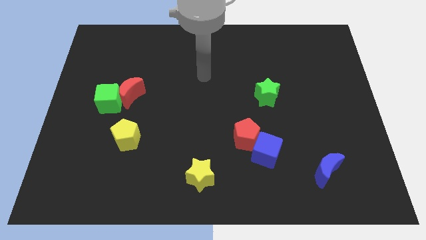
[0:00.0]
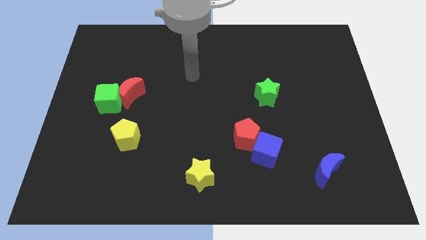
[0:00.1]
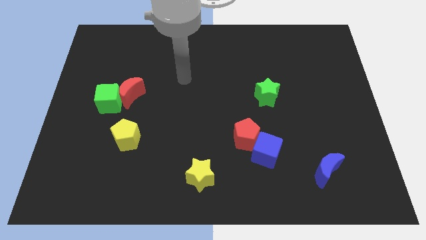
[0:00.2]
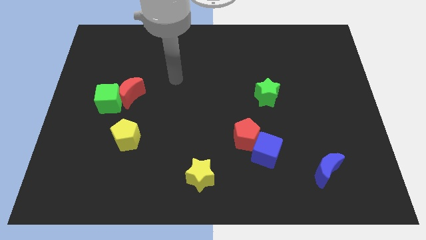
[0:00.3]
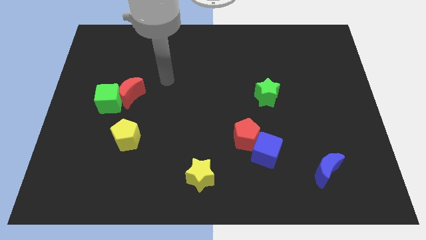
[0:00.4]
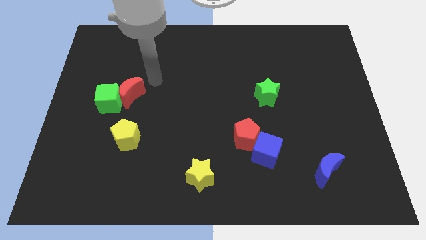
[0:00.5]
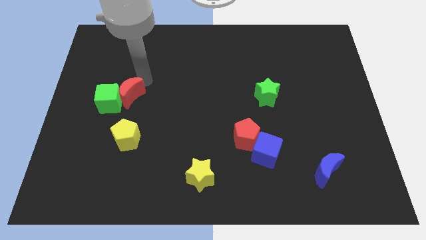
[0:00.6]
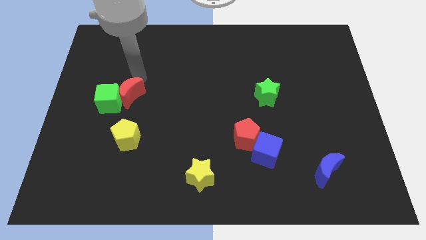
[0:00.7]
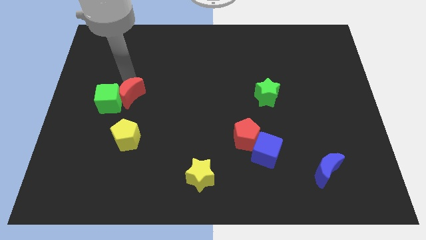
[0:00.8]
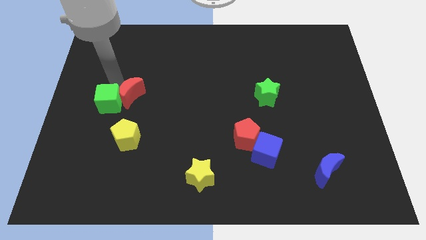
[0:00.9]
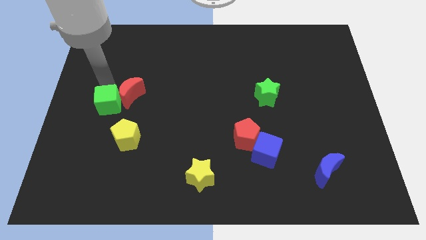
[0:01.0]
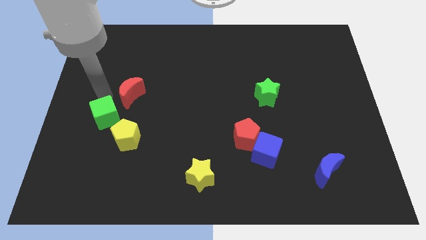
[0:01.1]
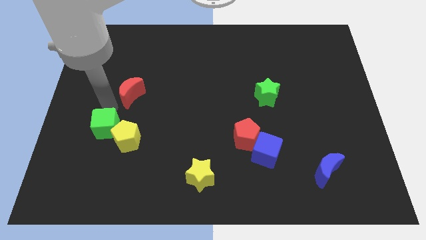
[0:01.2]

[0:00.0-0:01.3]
move the red moon away from the green cube

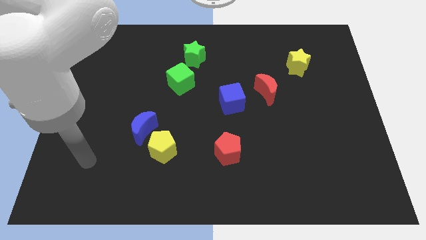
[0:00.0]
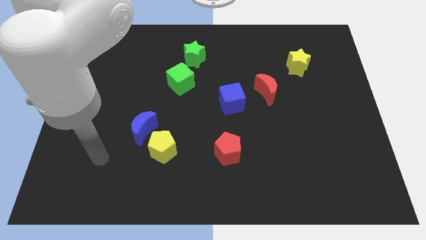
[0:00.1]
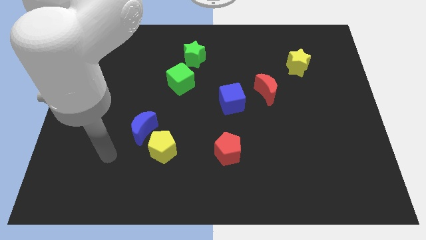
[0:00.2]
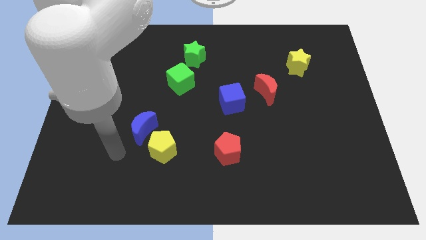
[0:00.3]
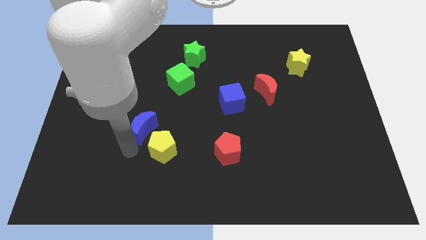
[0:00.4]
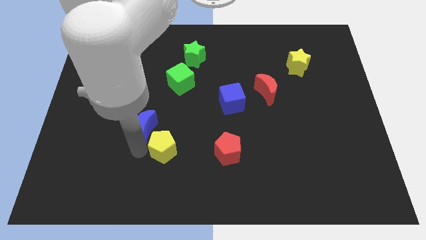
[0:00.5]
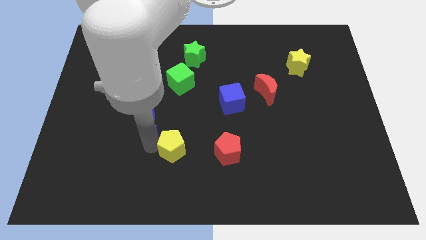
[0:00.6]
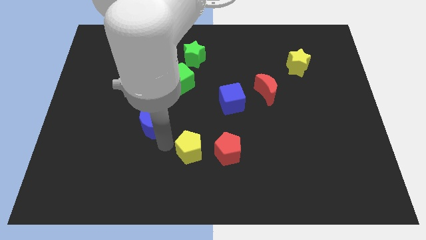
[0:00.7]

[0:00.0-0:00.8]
pull the blue moon apart from the yellow pentagon

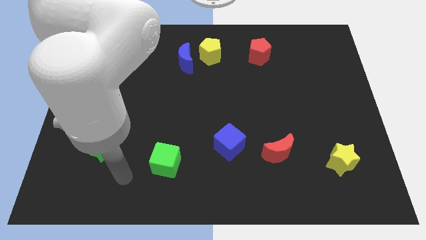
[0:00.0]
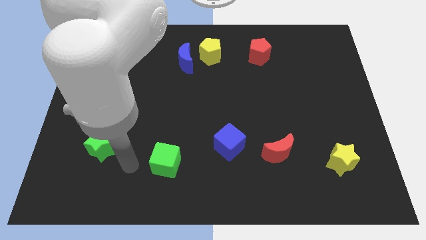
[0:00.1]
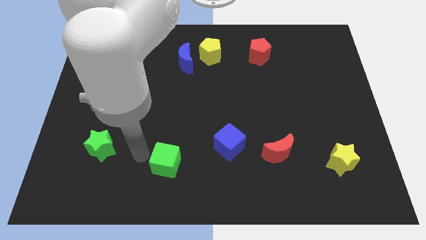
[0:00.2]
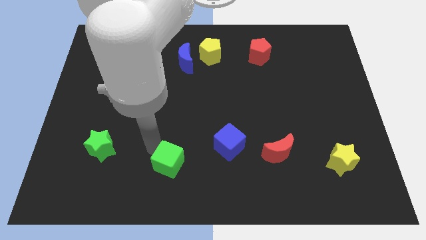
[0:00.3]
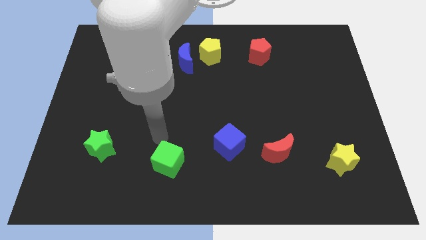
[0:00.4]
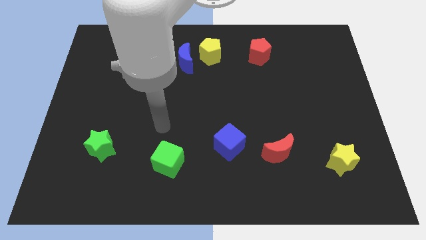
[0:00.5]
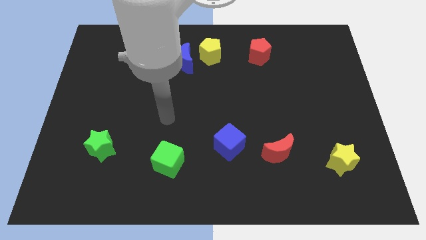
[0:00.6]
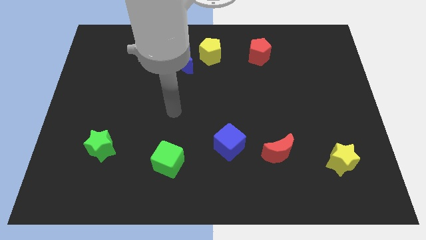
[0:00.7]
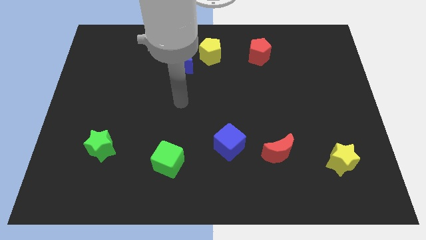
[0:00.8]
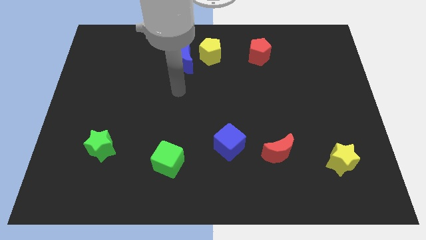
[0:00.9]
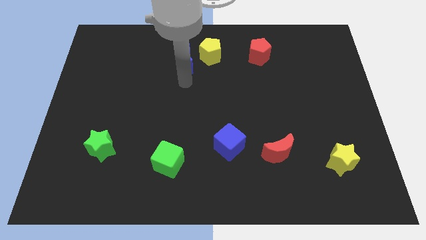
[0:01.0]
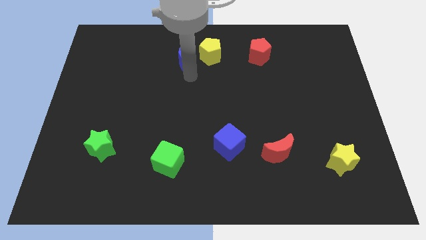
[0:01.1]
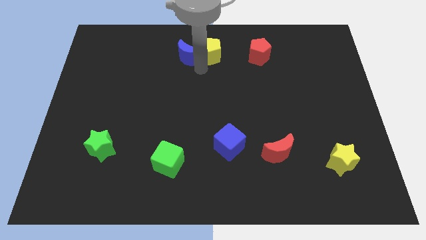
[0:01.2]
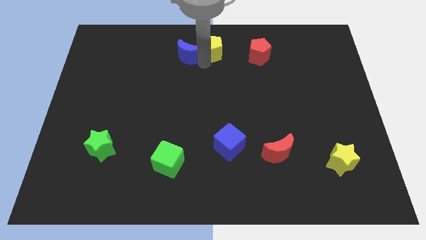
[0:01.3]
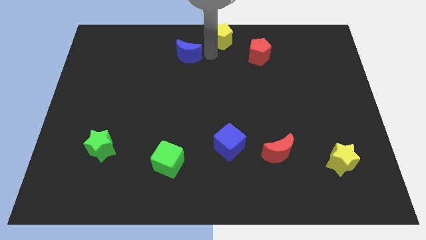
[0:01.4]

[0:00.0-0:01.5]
move the blue moon away from the yellow pentagon

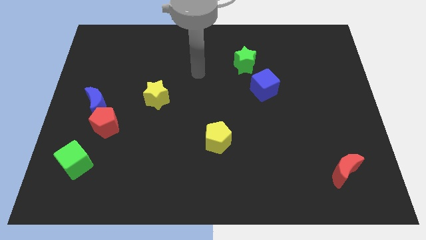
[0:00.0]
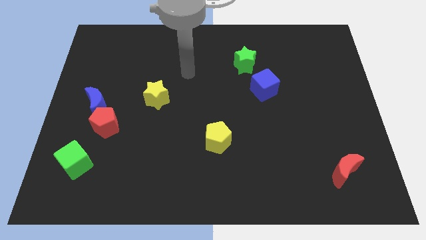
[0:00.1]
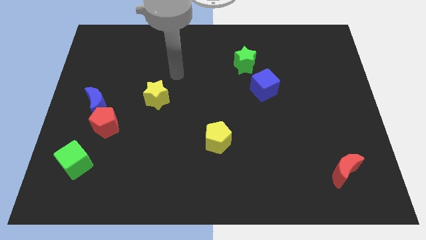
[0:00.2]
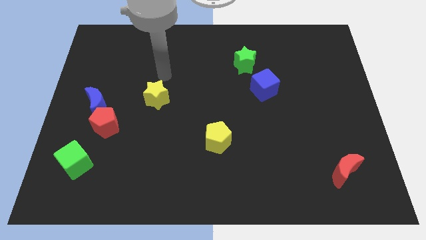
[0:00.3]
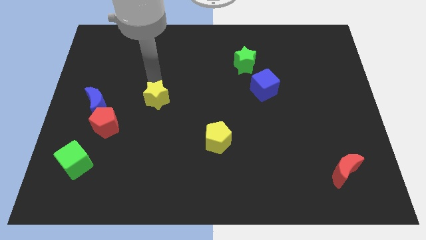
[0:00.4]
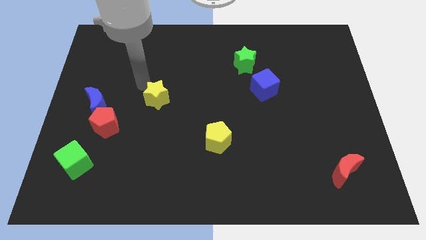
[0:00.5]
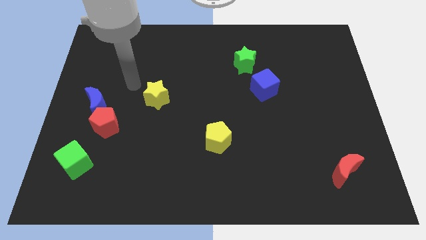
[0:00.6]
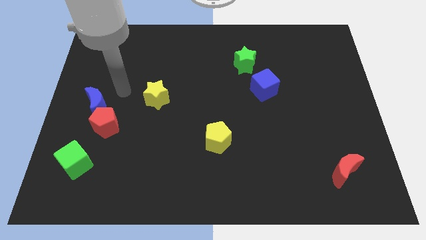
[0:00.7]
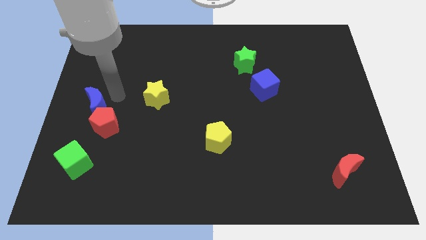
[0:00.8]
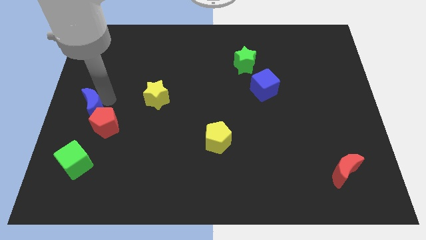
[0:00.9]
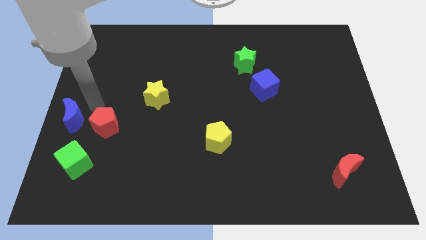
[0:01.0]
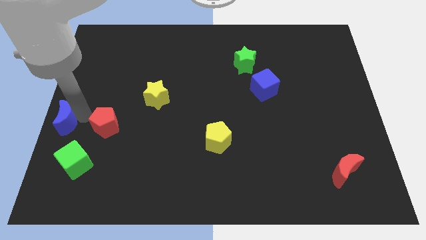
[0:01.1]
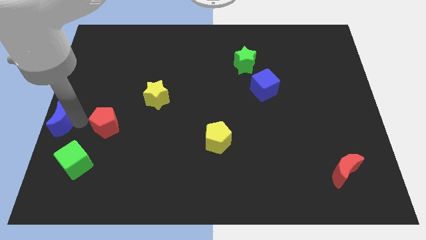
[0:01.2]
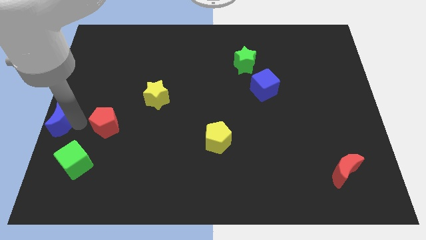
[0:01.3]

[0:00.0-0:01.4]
move the red pentagon away from the blue moon

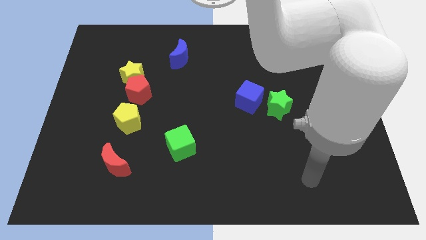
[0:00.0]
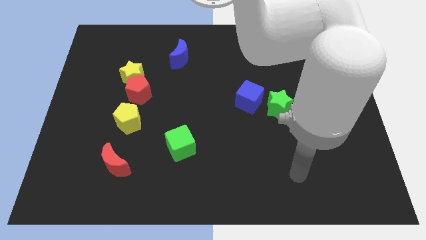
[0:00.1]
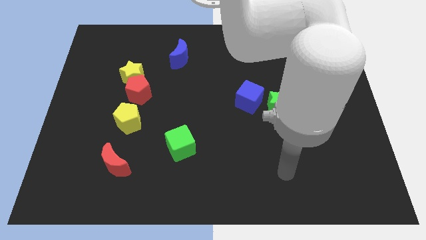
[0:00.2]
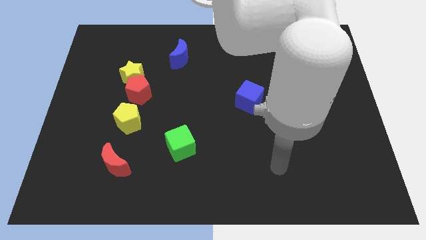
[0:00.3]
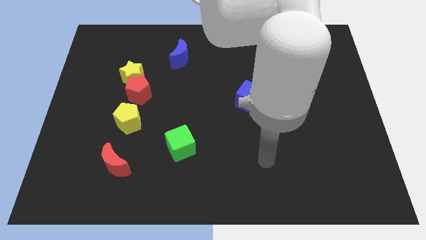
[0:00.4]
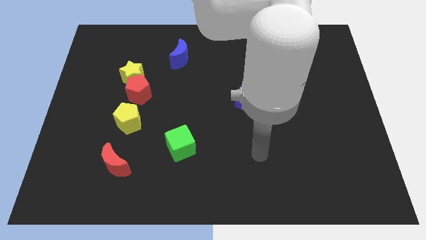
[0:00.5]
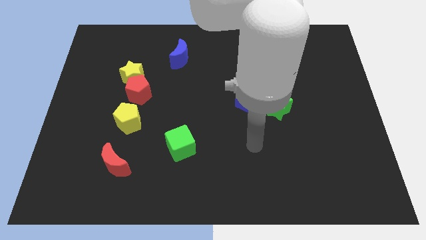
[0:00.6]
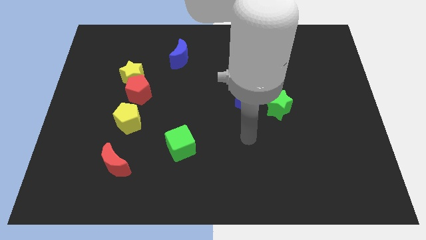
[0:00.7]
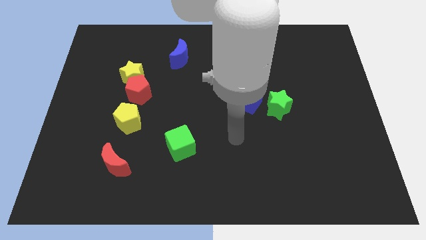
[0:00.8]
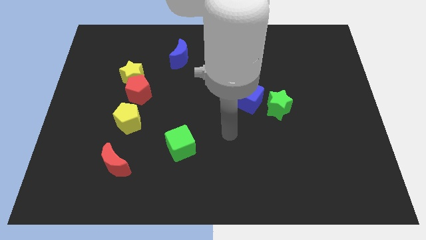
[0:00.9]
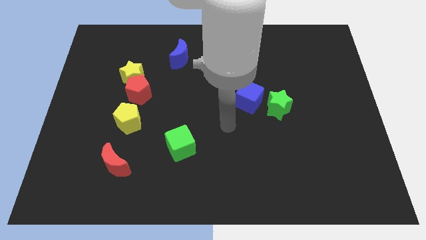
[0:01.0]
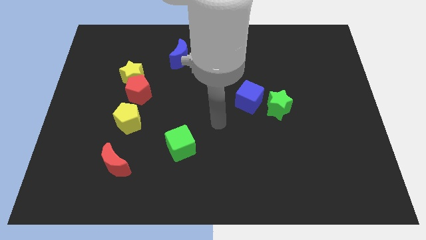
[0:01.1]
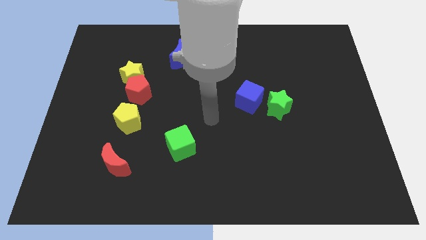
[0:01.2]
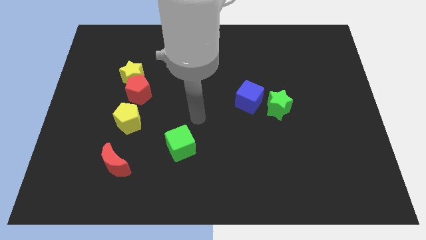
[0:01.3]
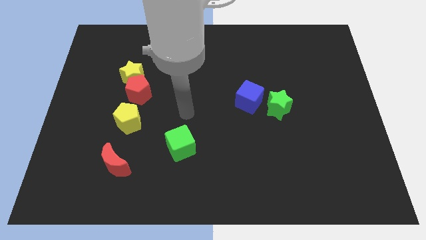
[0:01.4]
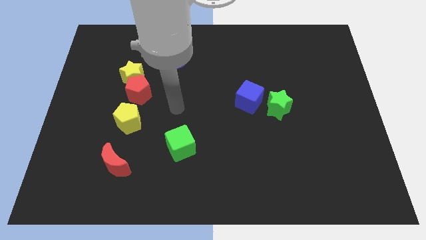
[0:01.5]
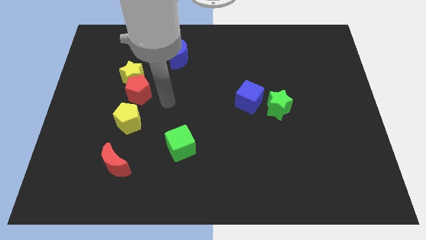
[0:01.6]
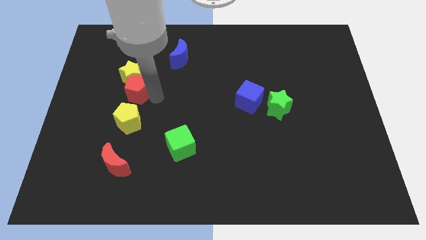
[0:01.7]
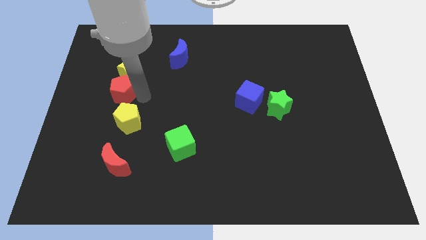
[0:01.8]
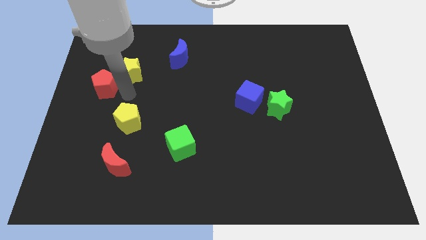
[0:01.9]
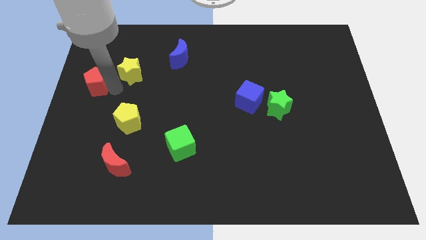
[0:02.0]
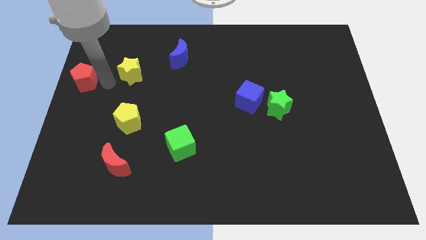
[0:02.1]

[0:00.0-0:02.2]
separate the yellow star from the red pentagon

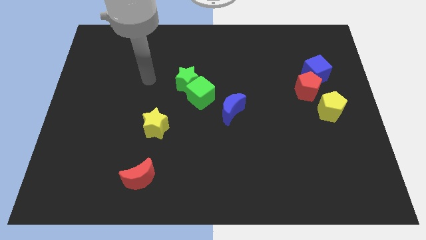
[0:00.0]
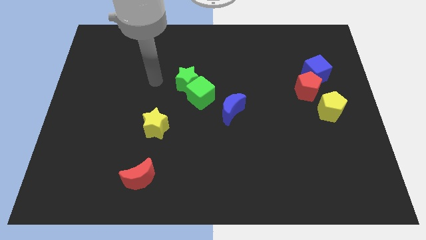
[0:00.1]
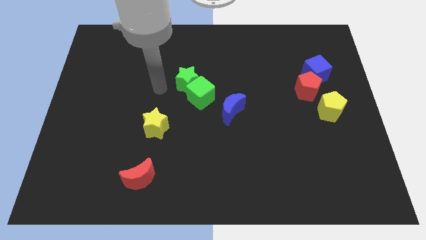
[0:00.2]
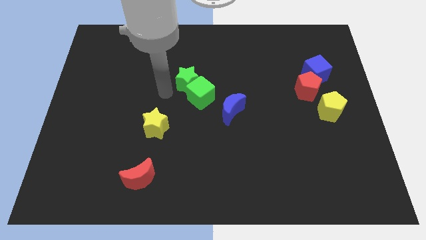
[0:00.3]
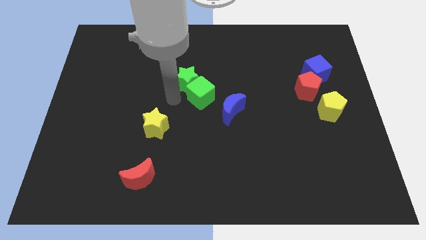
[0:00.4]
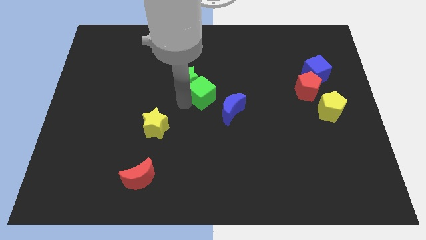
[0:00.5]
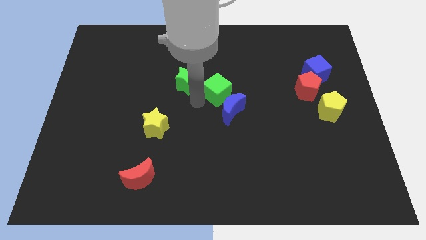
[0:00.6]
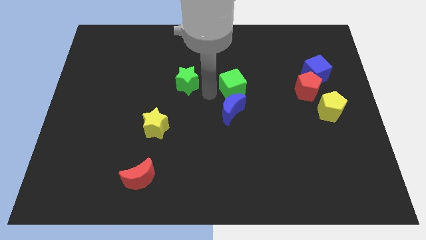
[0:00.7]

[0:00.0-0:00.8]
pull the green star apart from the green cube

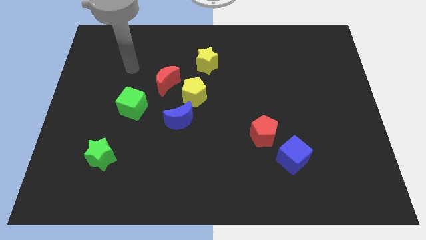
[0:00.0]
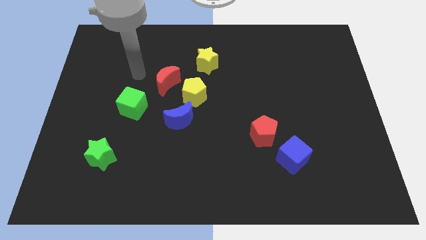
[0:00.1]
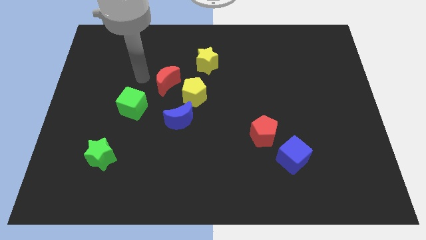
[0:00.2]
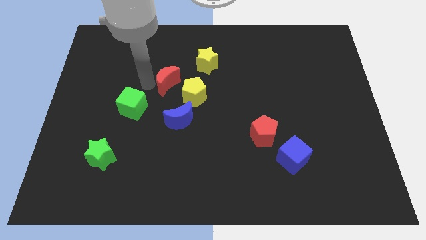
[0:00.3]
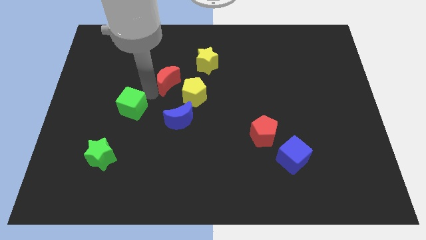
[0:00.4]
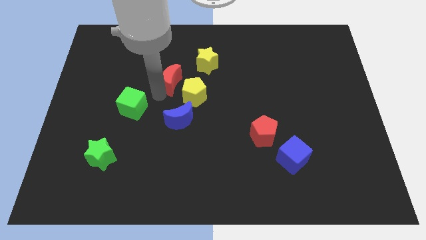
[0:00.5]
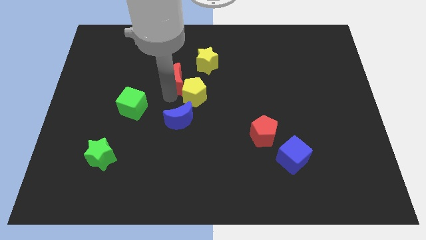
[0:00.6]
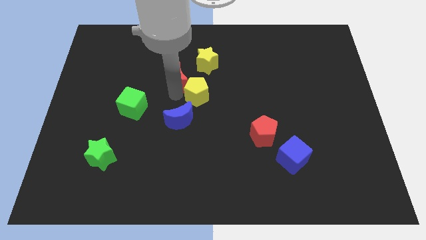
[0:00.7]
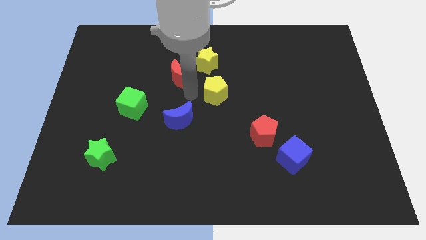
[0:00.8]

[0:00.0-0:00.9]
separate the red moon from the yellow pentagon

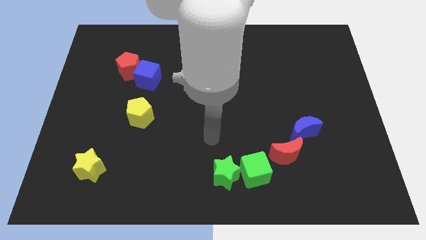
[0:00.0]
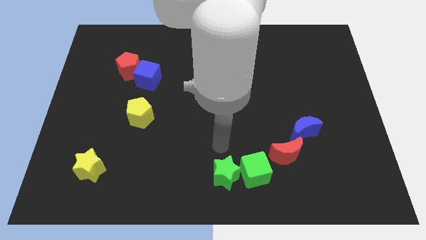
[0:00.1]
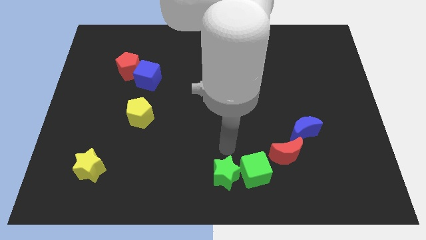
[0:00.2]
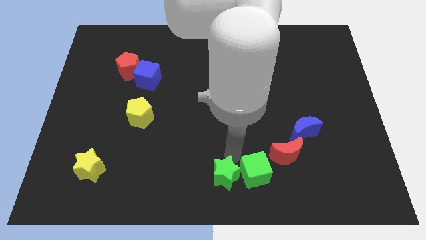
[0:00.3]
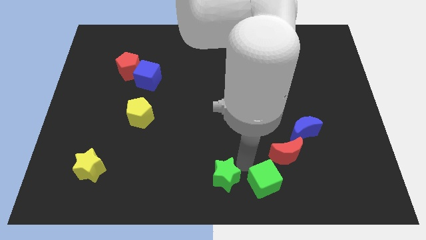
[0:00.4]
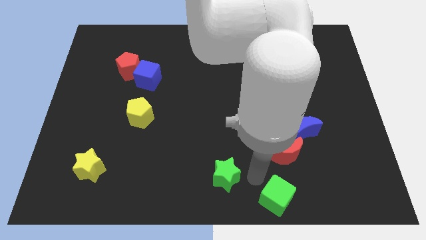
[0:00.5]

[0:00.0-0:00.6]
separate the green star from the green cube
